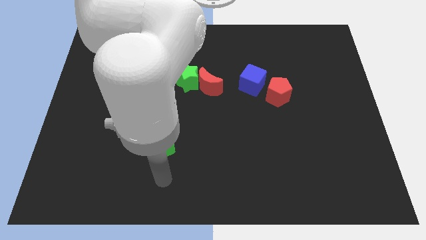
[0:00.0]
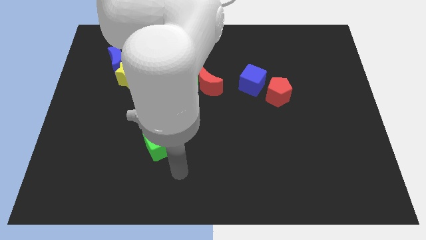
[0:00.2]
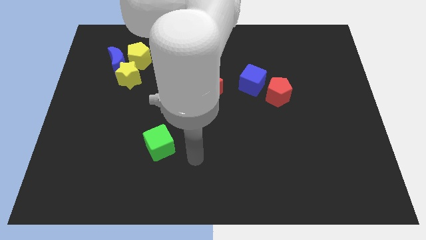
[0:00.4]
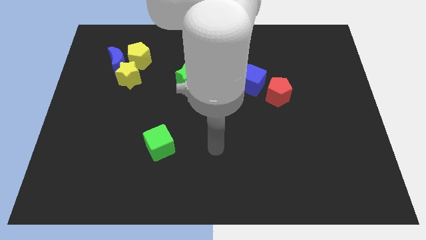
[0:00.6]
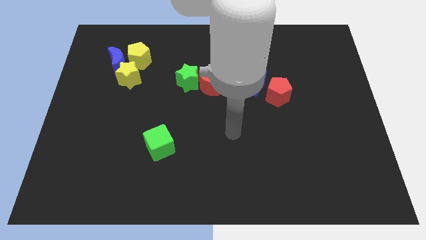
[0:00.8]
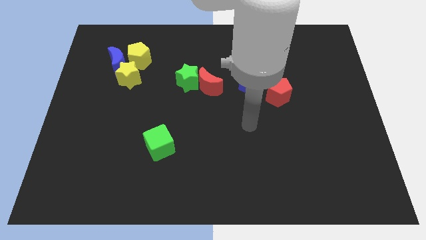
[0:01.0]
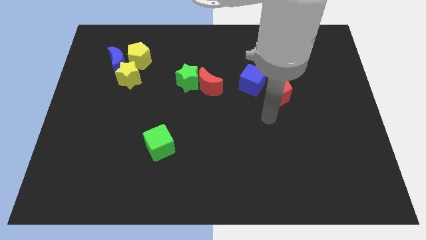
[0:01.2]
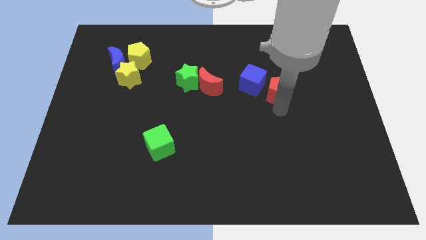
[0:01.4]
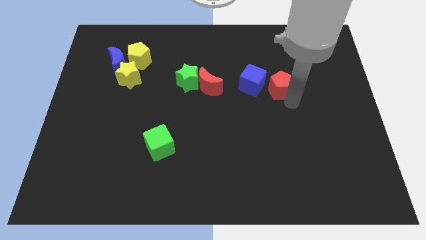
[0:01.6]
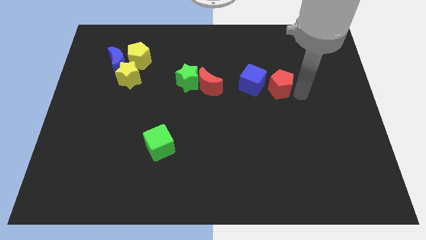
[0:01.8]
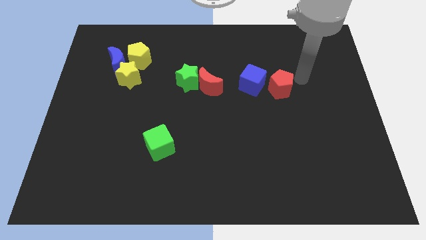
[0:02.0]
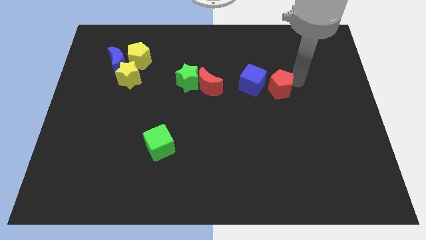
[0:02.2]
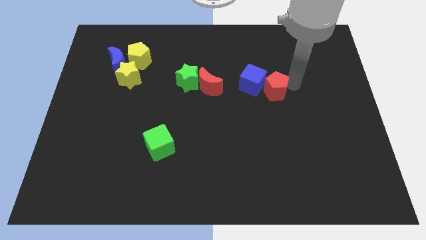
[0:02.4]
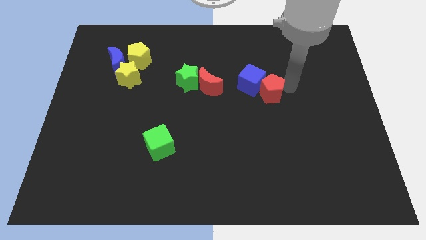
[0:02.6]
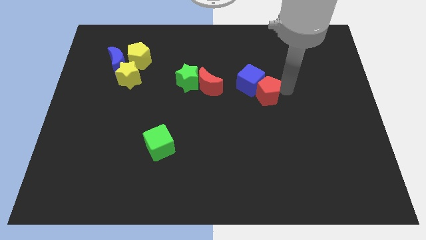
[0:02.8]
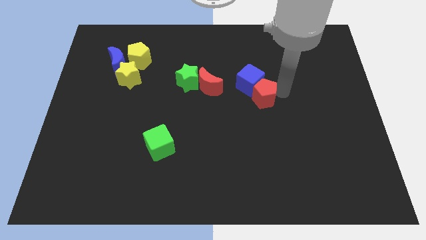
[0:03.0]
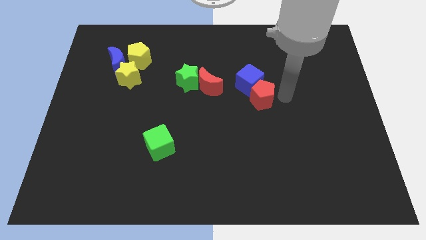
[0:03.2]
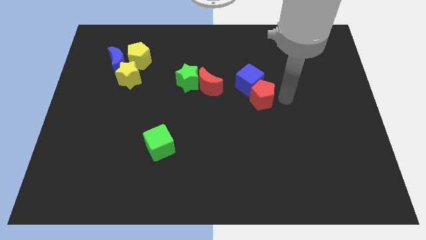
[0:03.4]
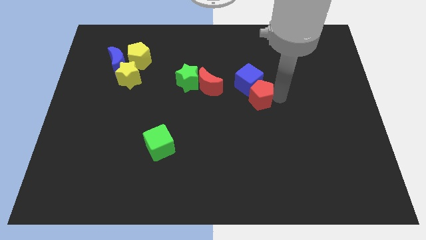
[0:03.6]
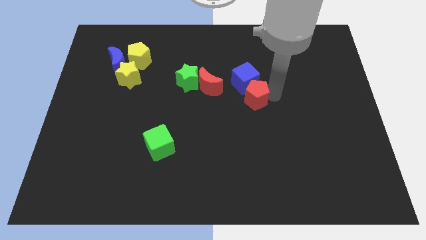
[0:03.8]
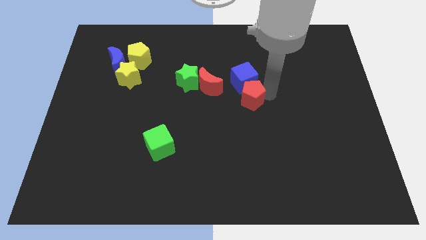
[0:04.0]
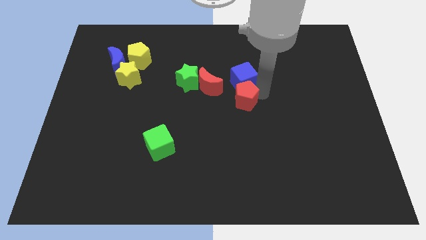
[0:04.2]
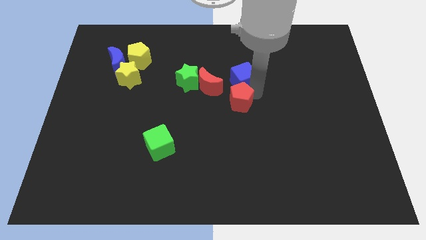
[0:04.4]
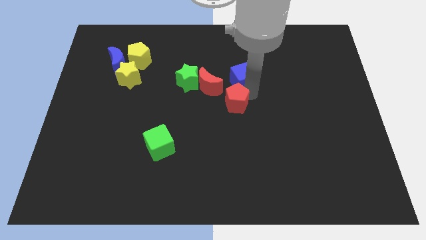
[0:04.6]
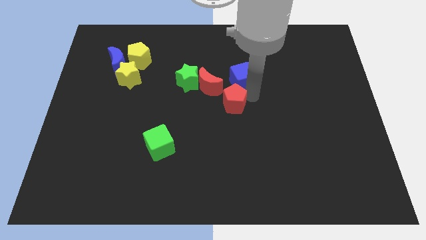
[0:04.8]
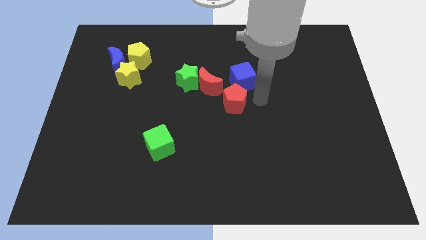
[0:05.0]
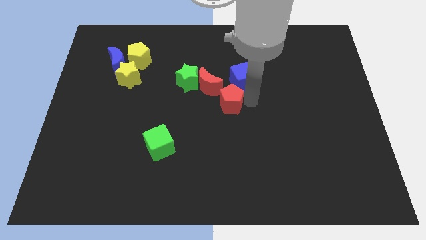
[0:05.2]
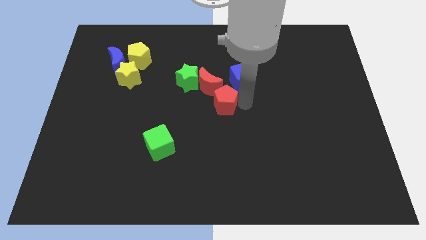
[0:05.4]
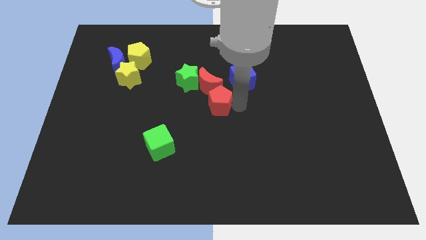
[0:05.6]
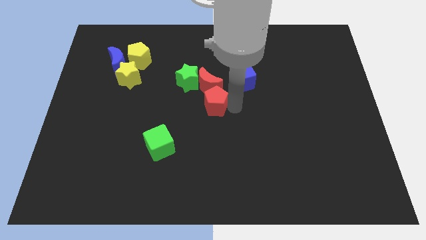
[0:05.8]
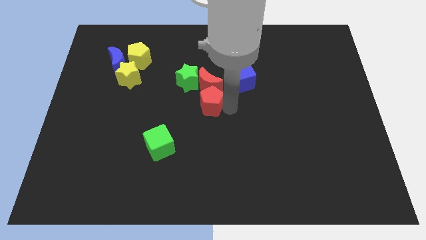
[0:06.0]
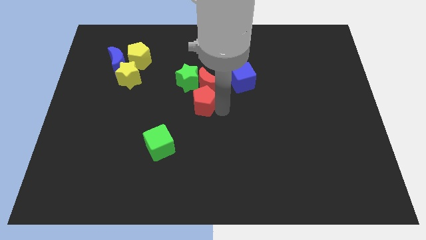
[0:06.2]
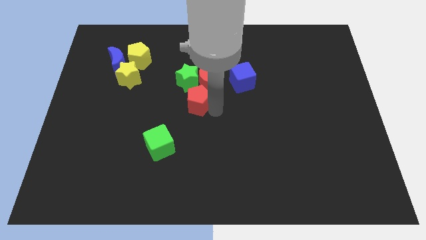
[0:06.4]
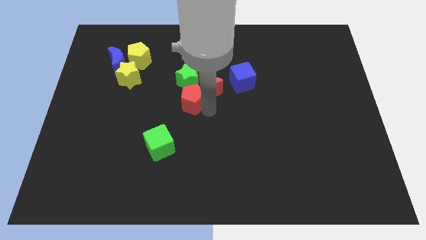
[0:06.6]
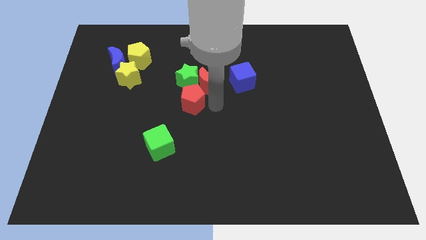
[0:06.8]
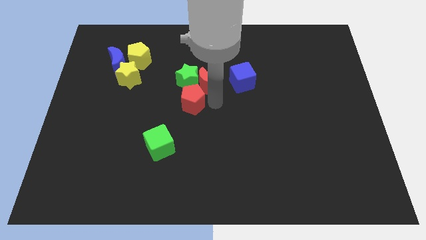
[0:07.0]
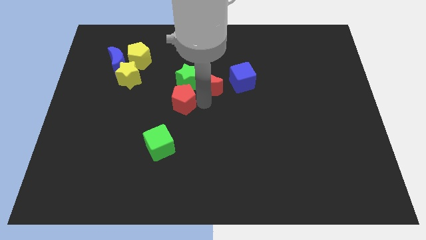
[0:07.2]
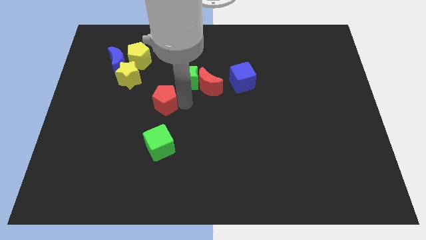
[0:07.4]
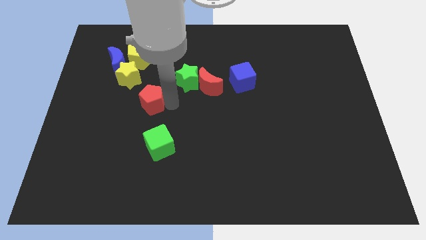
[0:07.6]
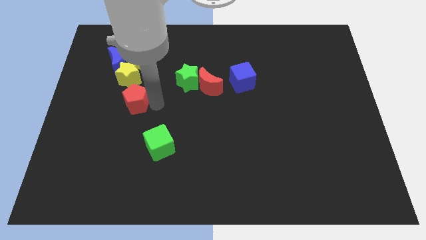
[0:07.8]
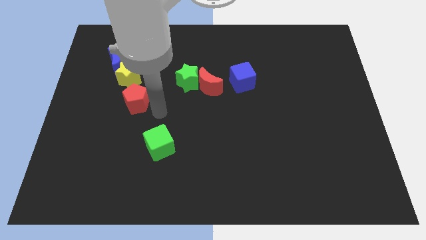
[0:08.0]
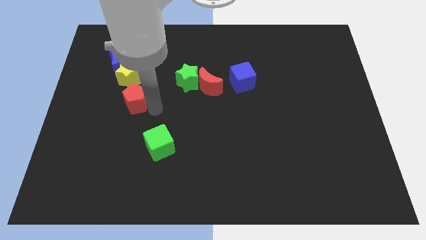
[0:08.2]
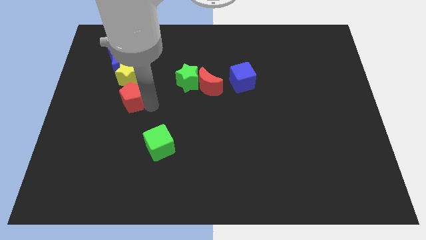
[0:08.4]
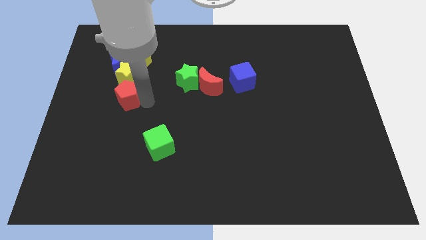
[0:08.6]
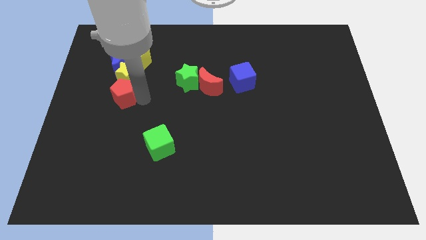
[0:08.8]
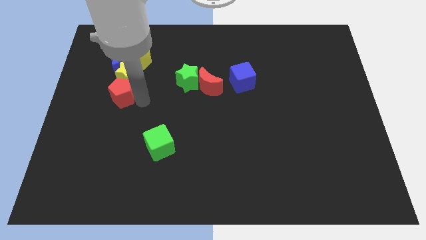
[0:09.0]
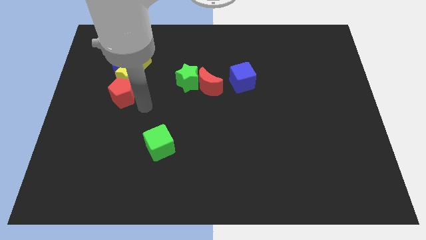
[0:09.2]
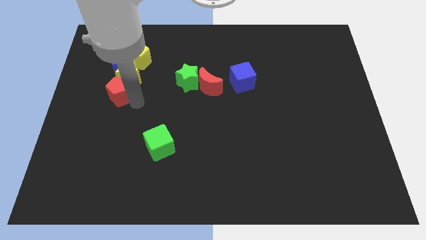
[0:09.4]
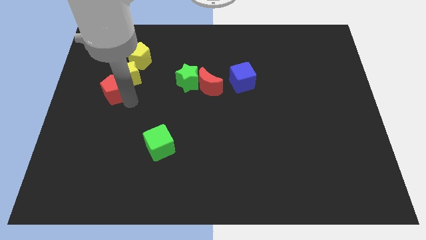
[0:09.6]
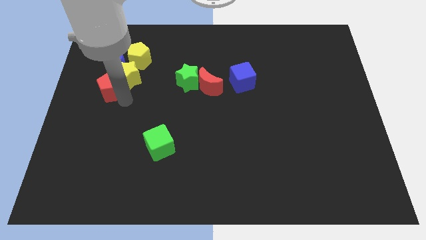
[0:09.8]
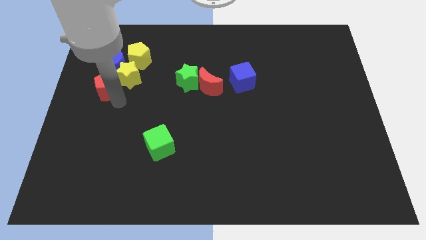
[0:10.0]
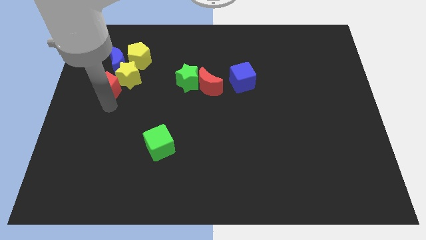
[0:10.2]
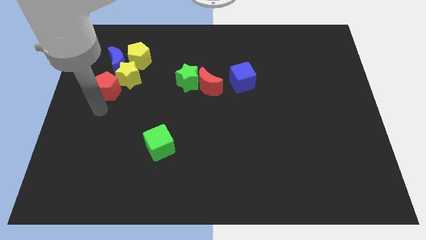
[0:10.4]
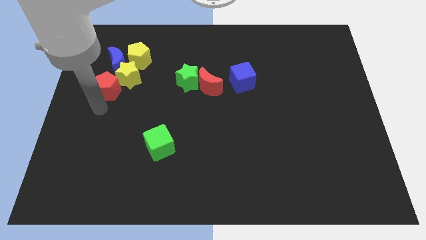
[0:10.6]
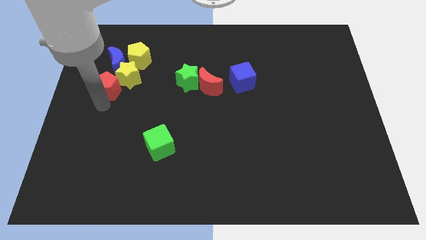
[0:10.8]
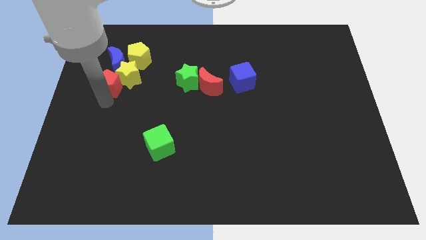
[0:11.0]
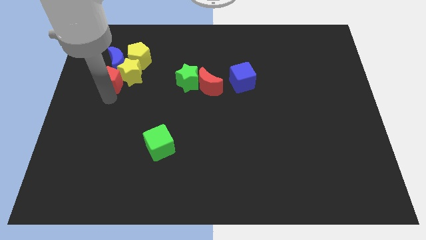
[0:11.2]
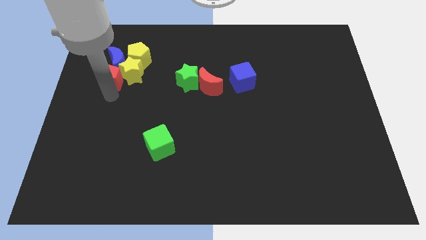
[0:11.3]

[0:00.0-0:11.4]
put the red pentagon to the blue moon

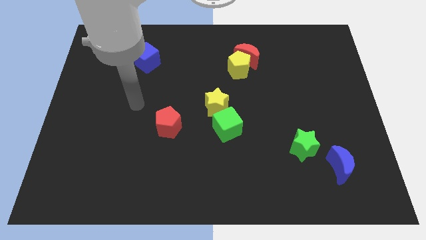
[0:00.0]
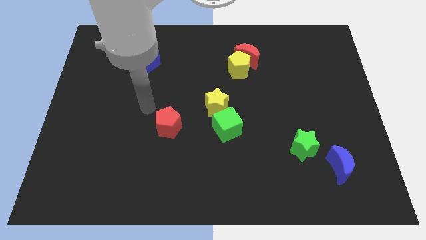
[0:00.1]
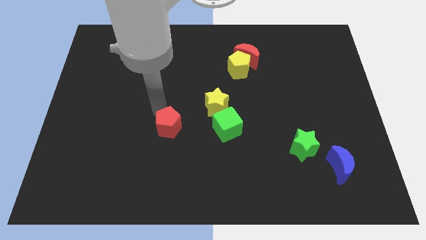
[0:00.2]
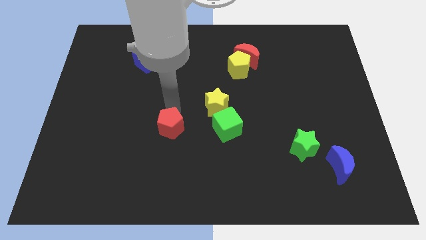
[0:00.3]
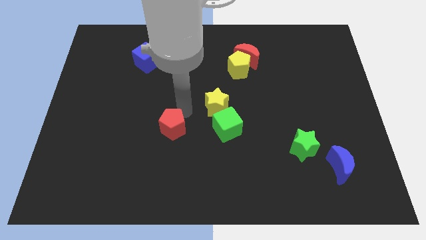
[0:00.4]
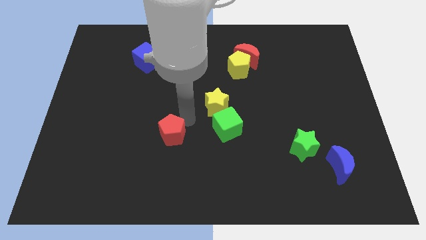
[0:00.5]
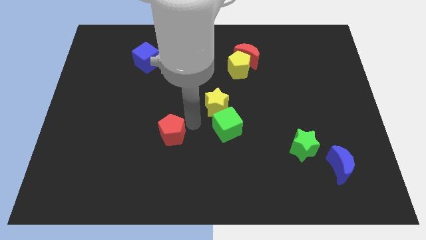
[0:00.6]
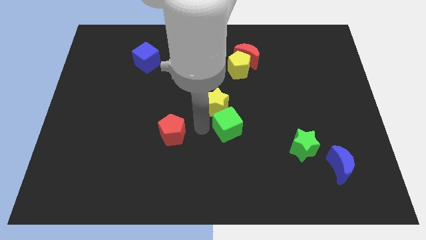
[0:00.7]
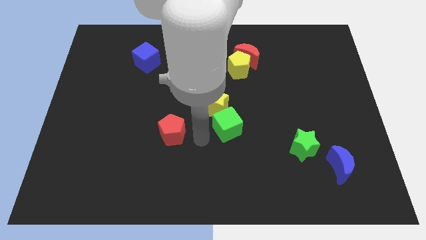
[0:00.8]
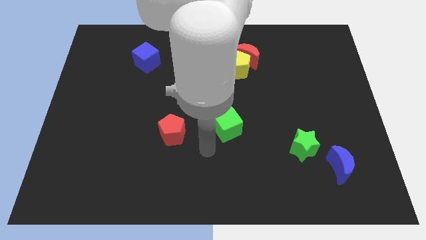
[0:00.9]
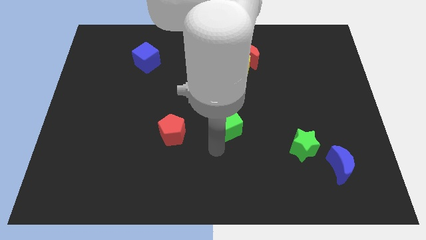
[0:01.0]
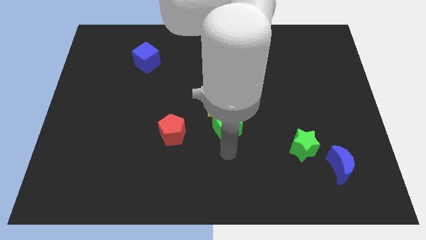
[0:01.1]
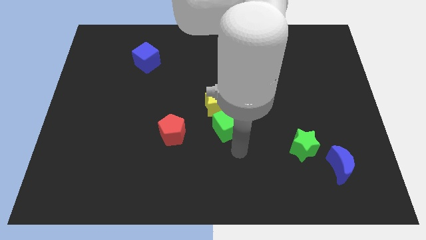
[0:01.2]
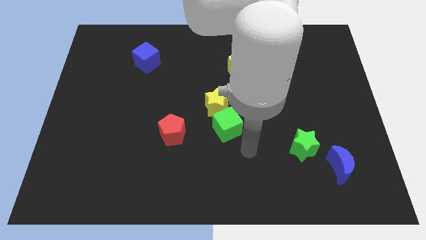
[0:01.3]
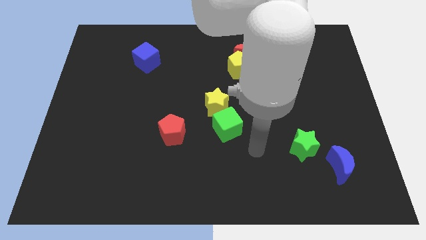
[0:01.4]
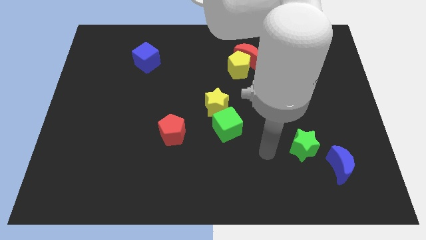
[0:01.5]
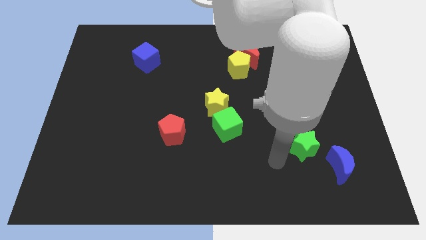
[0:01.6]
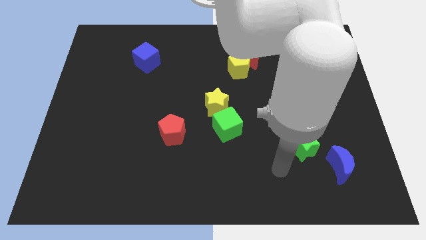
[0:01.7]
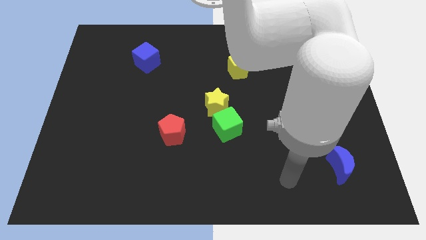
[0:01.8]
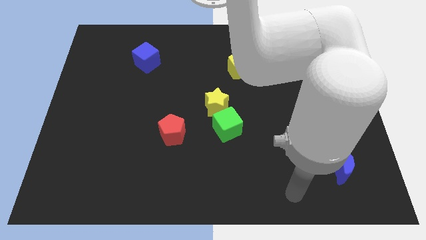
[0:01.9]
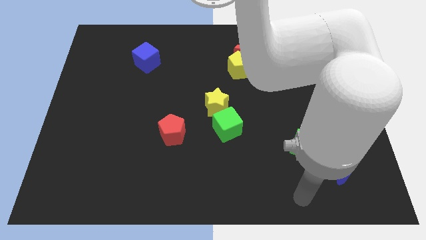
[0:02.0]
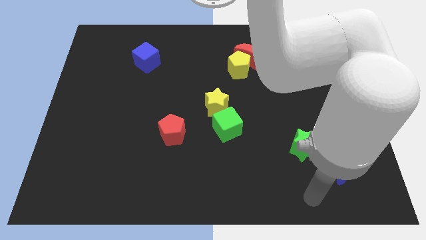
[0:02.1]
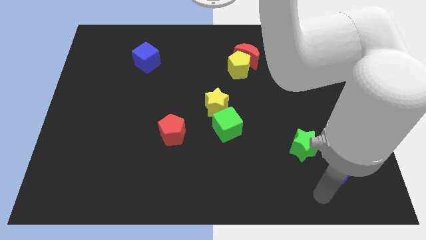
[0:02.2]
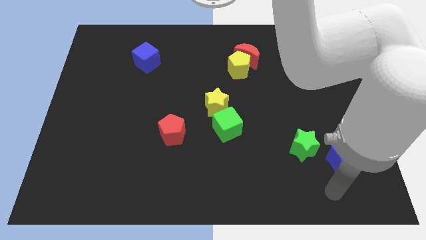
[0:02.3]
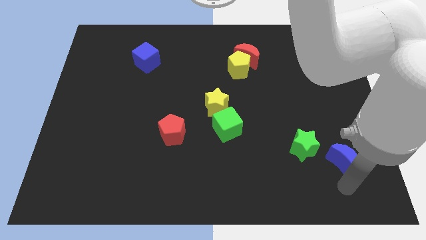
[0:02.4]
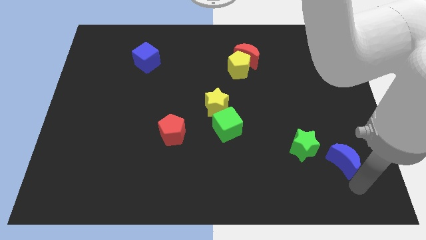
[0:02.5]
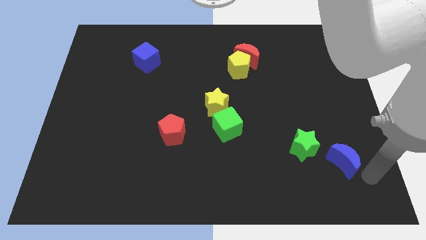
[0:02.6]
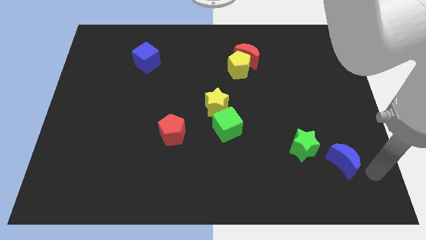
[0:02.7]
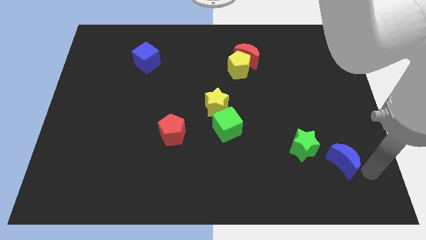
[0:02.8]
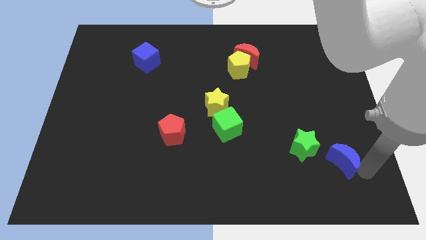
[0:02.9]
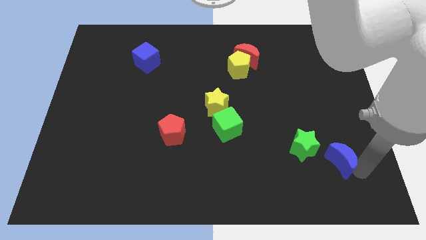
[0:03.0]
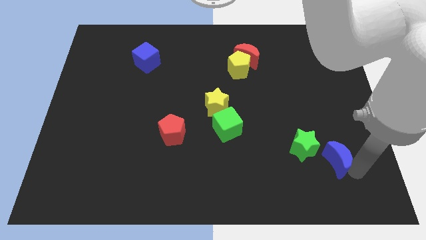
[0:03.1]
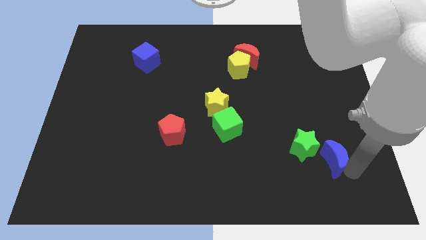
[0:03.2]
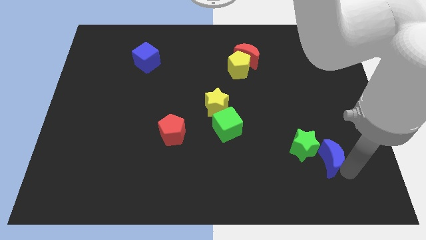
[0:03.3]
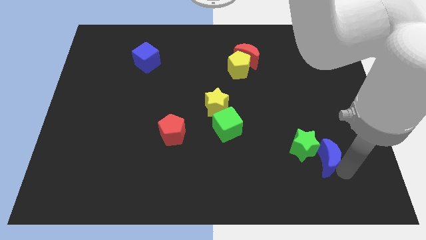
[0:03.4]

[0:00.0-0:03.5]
slide the blue moon to the green star
